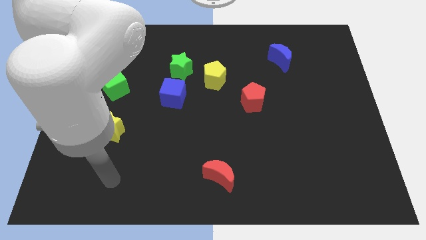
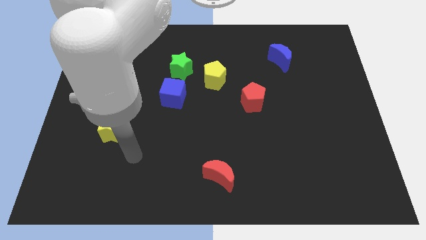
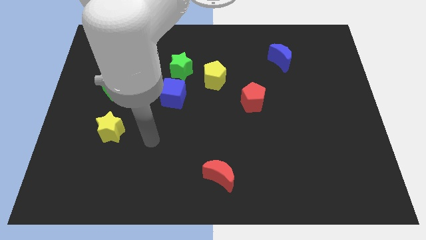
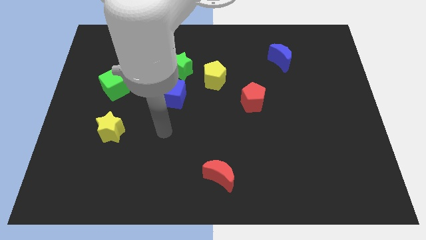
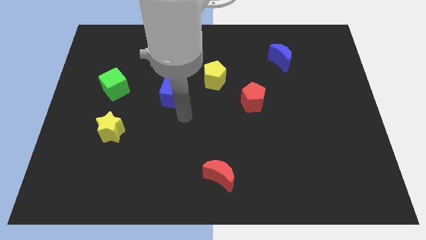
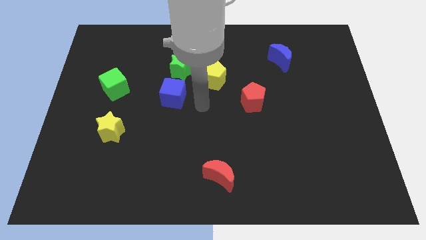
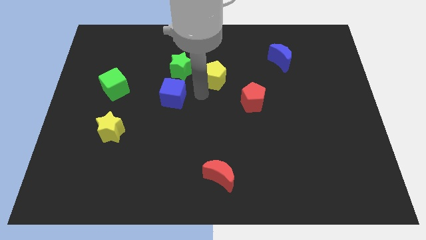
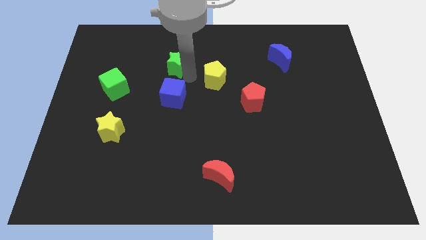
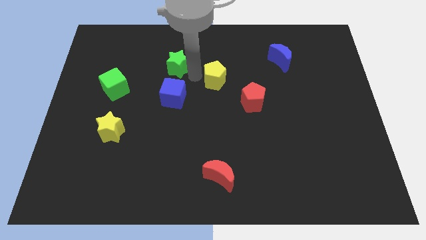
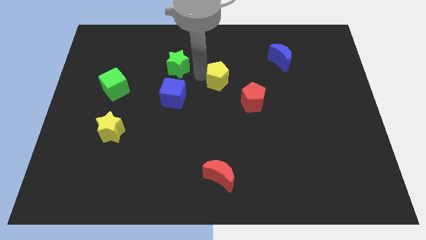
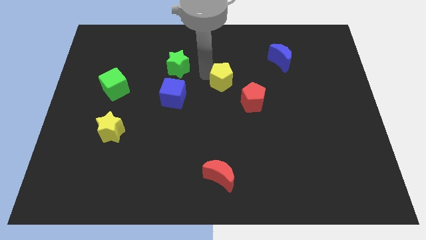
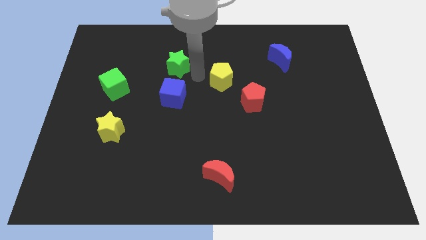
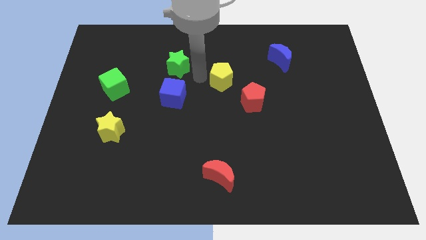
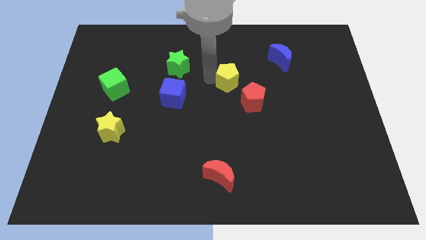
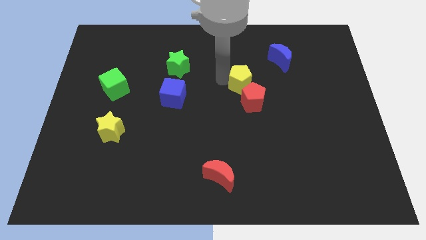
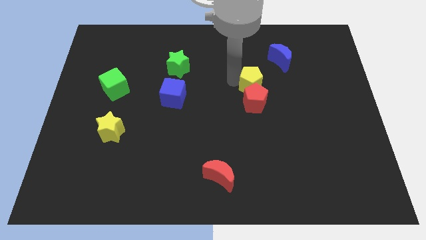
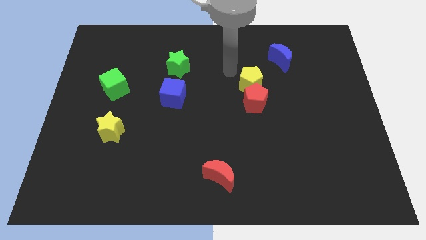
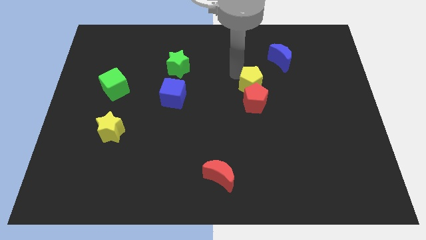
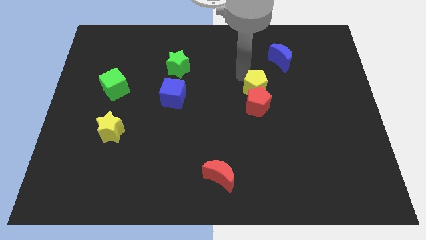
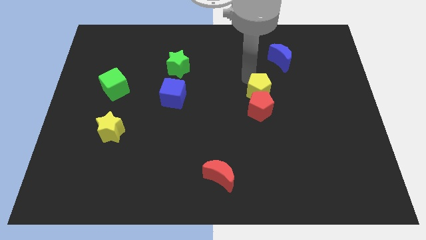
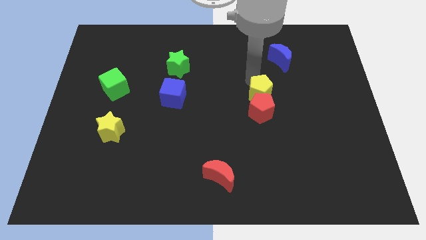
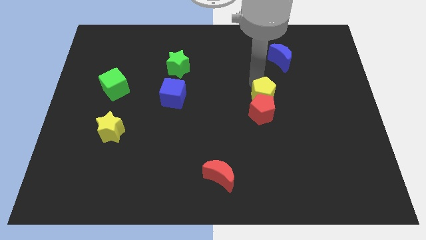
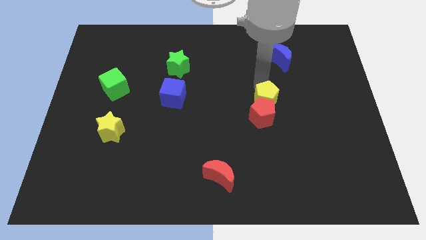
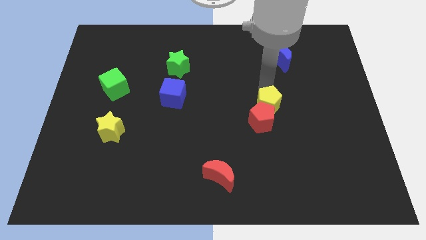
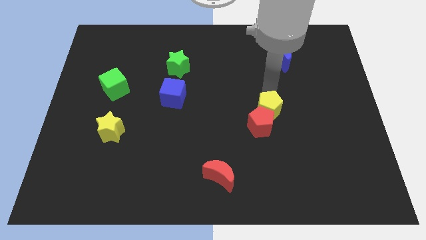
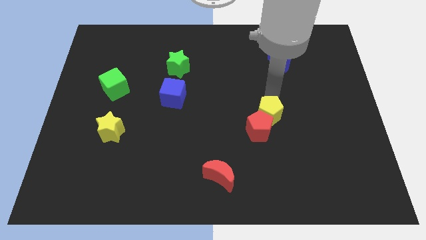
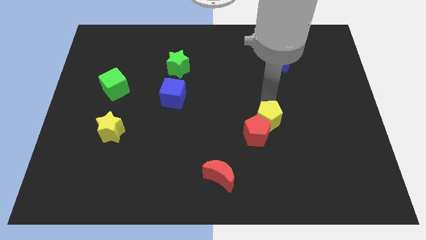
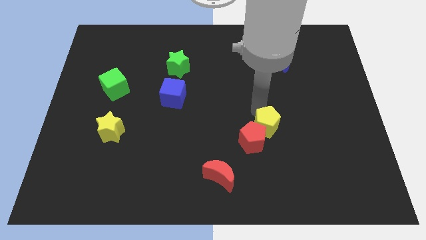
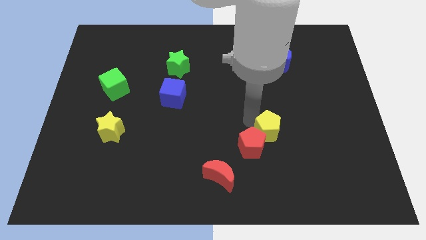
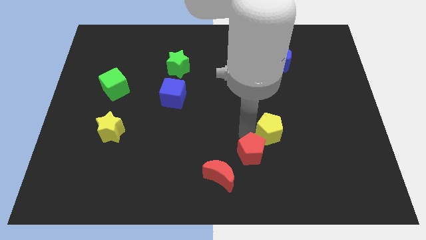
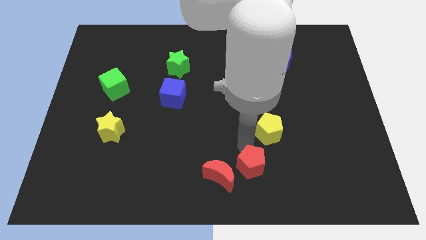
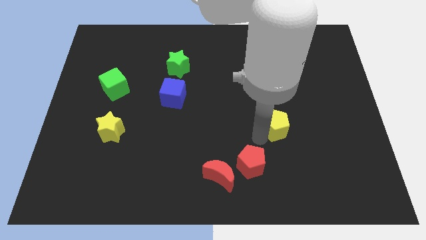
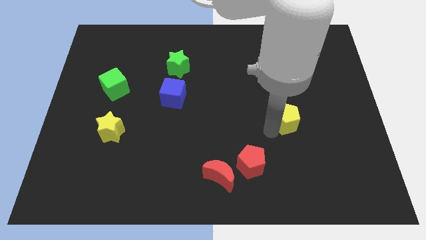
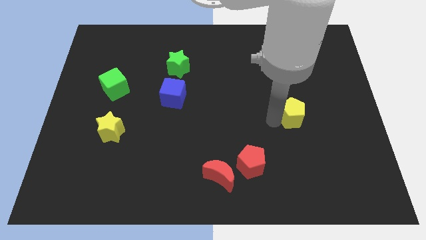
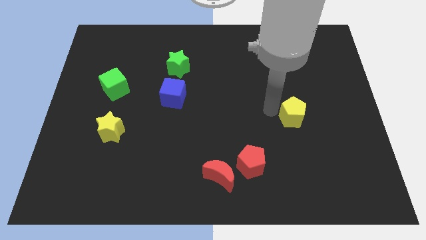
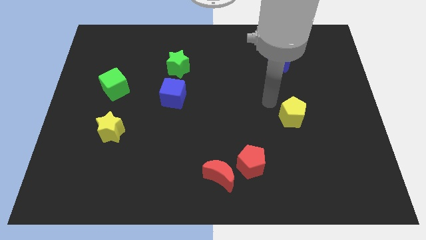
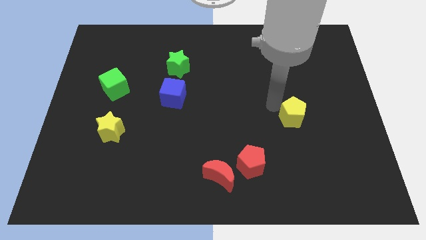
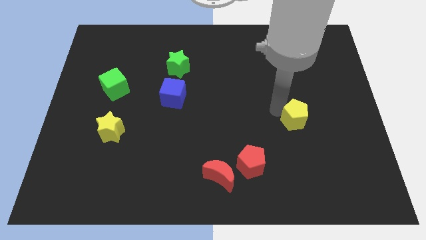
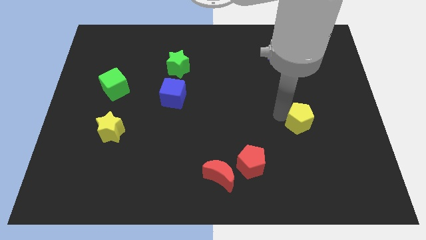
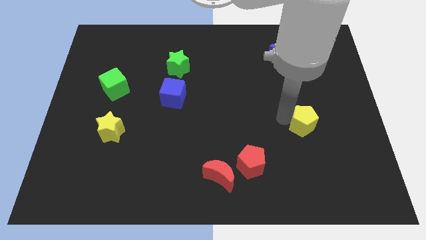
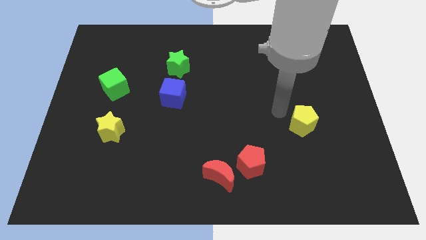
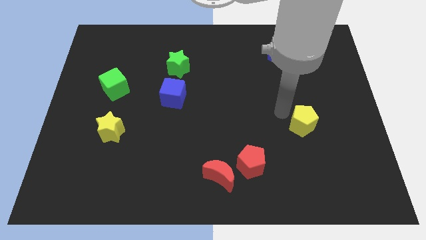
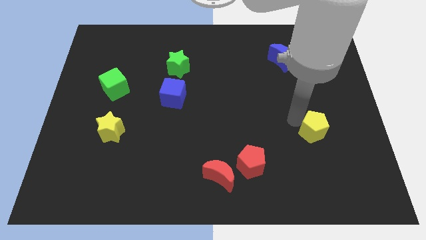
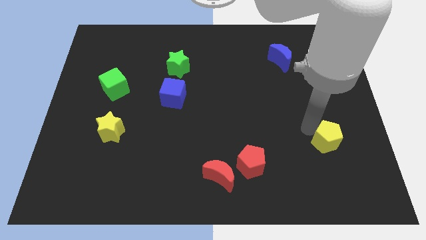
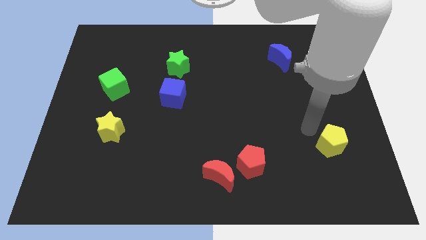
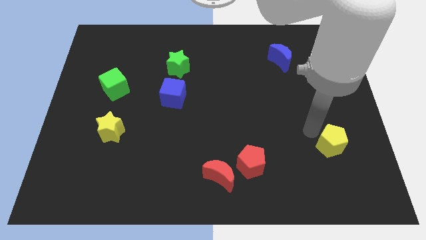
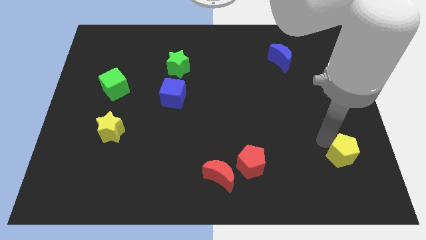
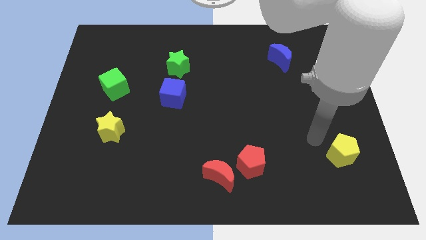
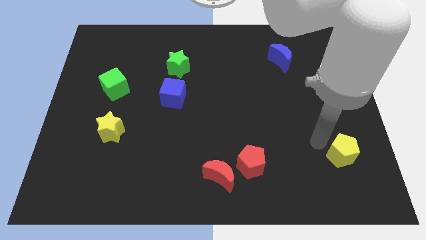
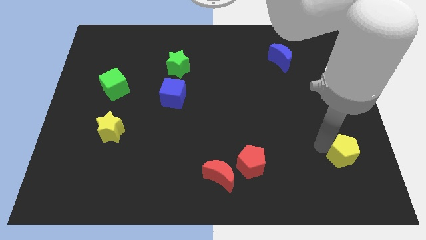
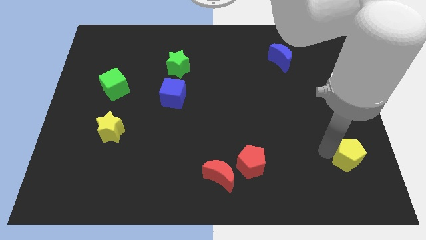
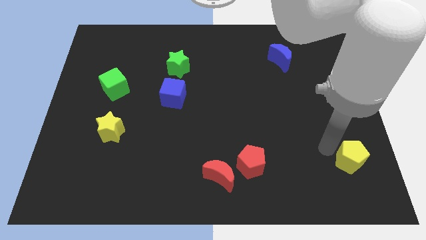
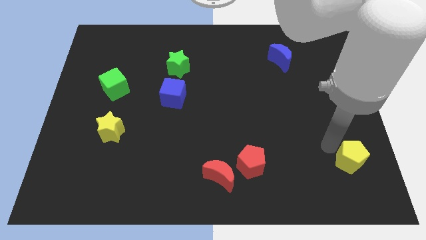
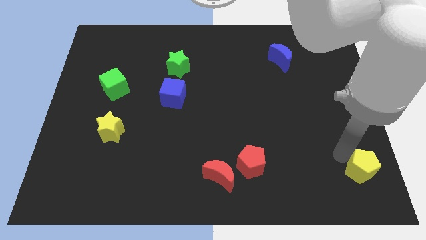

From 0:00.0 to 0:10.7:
put the yellow pentagon to the lower right corner

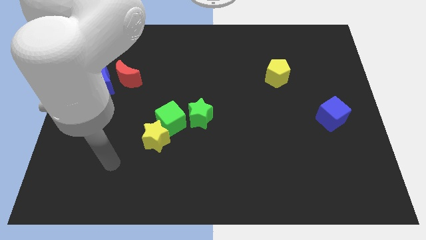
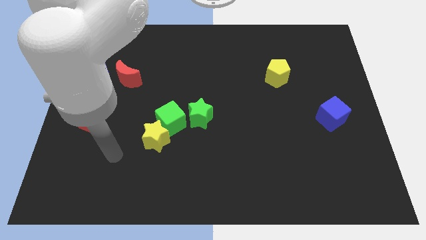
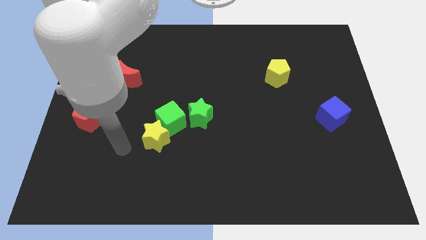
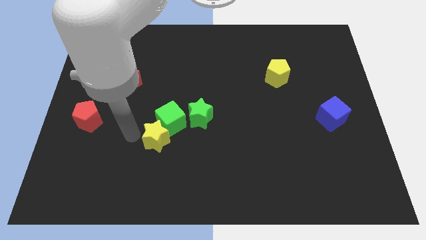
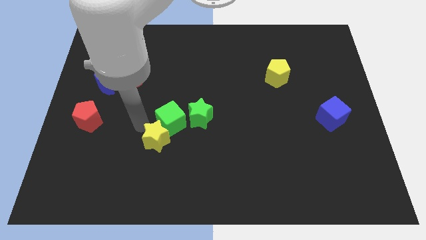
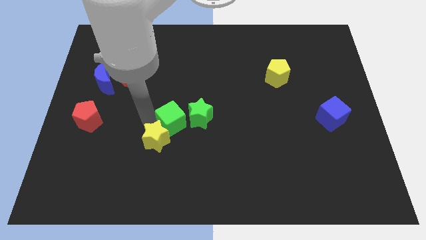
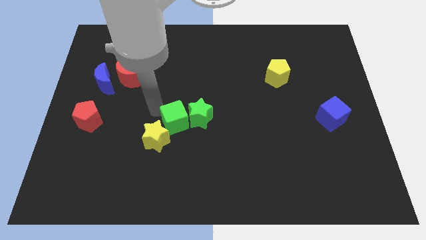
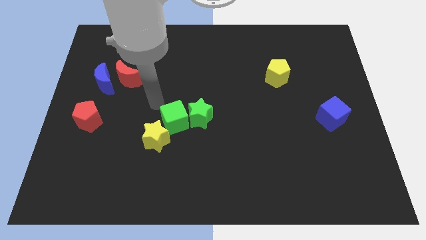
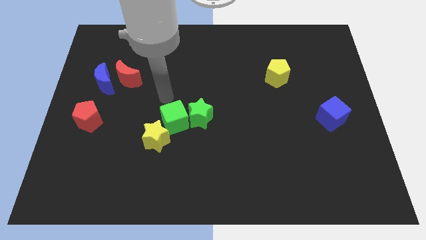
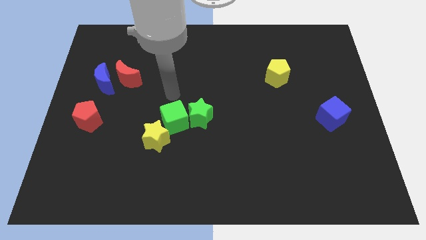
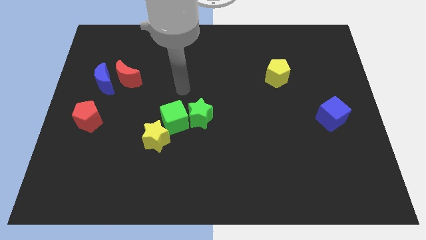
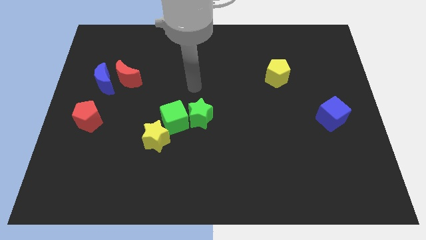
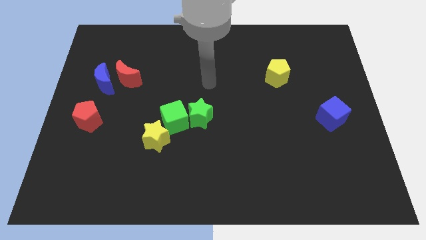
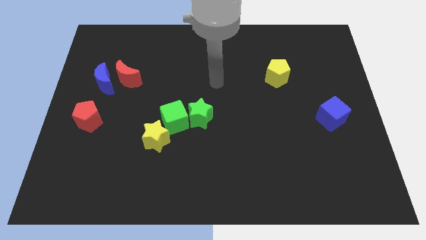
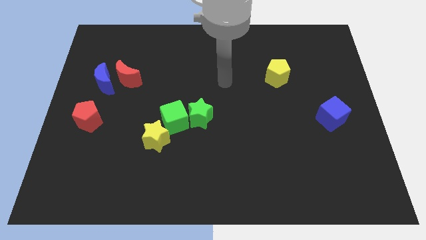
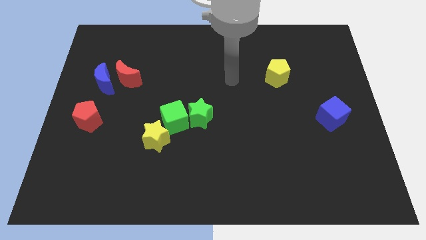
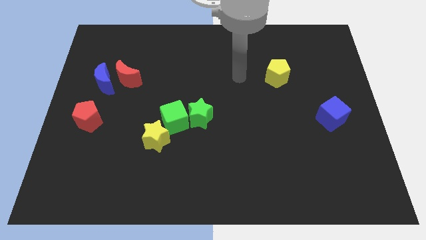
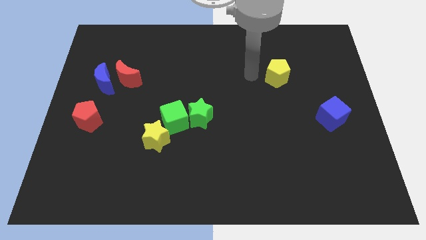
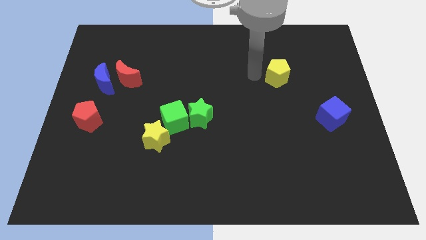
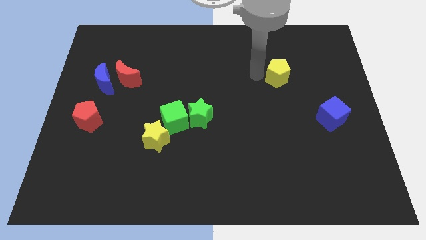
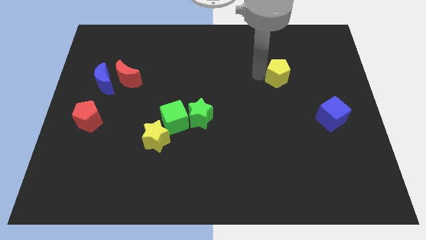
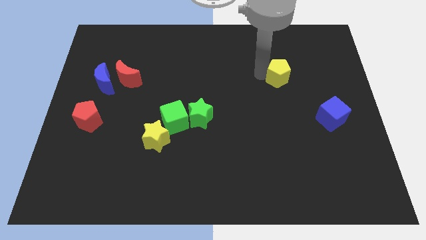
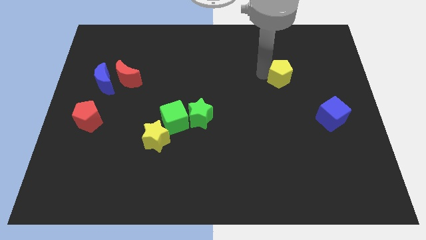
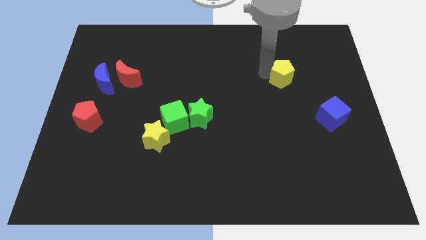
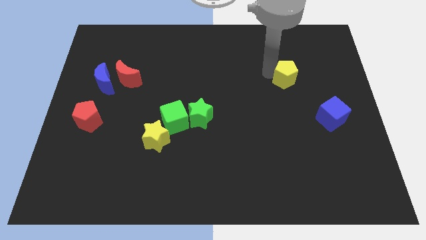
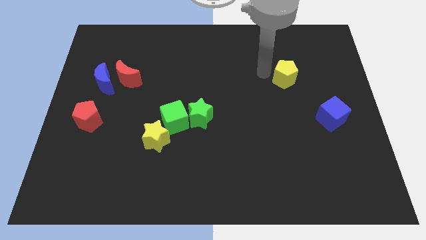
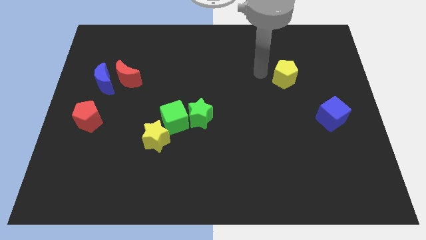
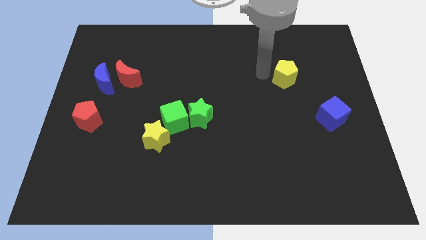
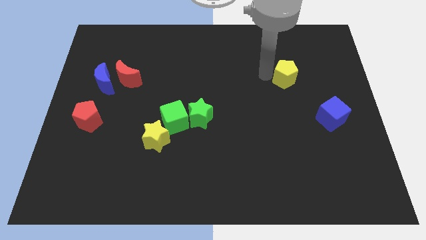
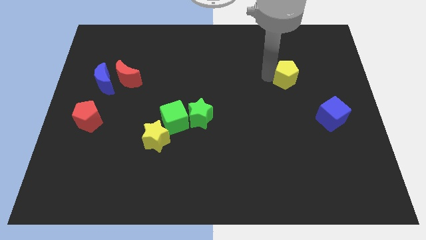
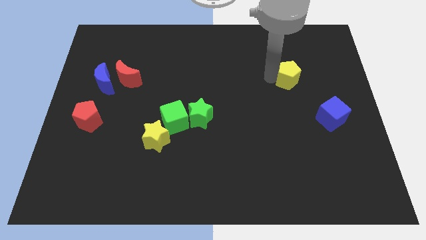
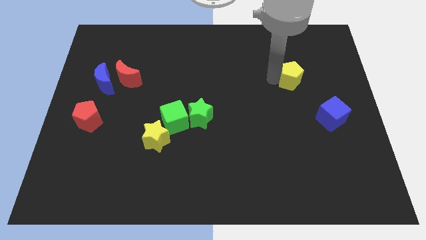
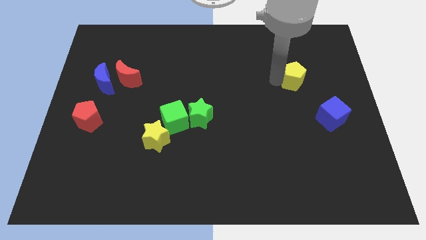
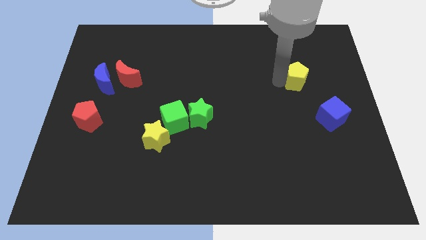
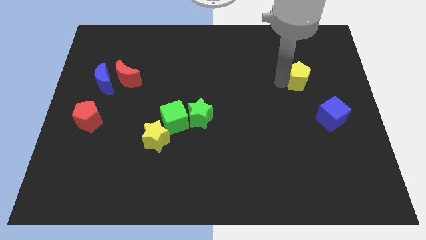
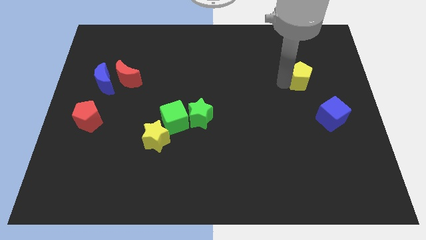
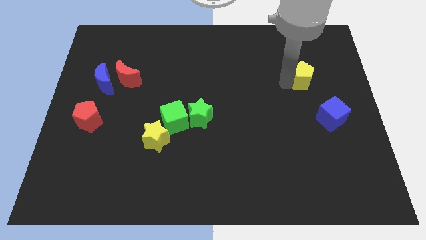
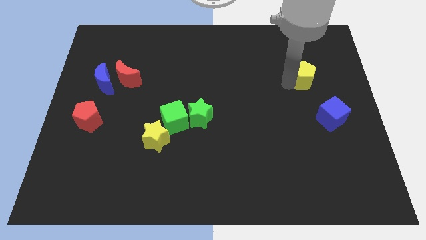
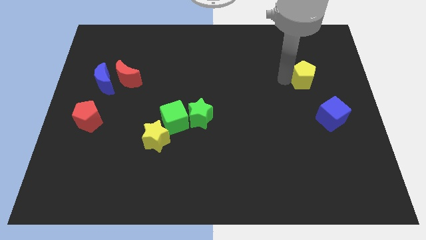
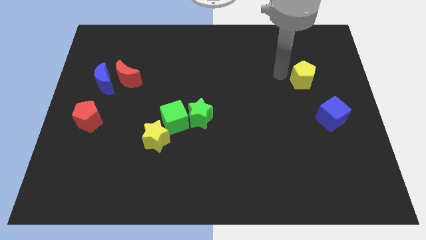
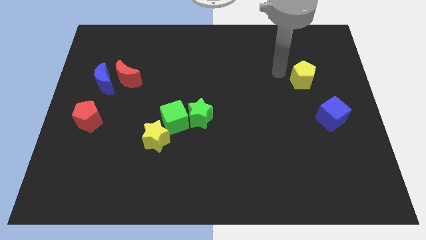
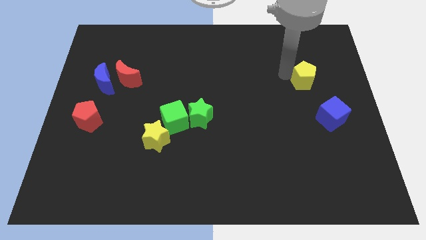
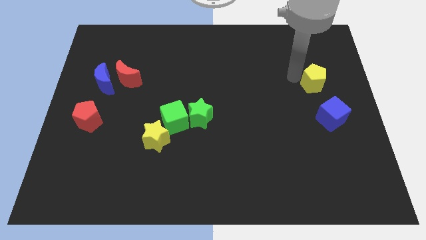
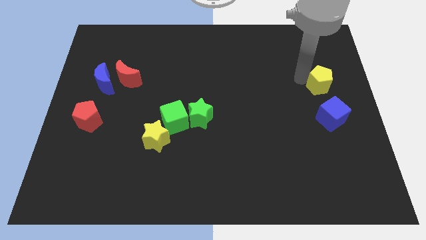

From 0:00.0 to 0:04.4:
move the yellow pentagon to the right side
